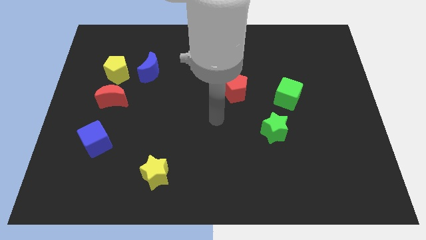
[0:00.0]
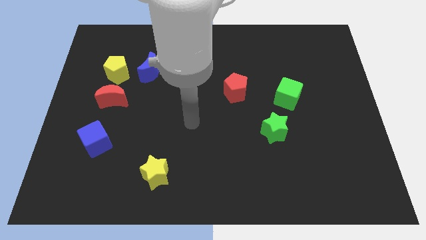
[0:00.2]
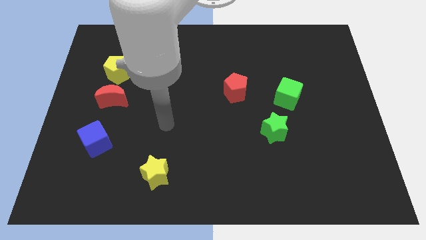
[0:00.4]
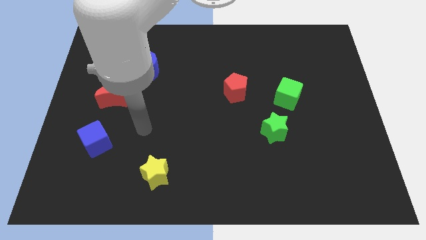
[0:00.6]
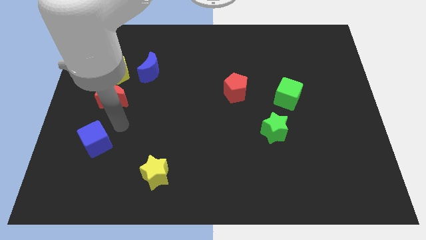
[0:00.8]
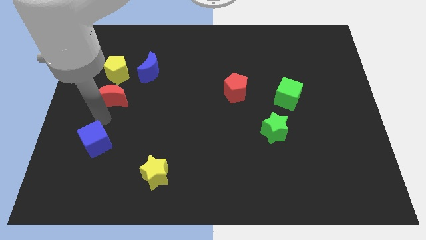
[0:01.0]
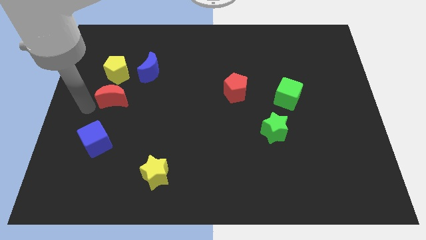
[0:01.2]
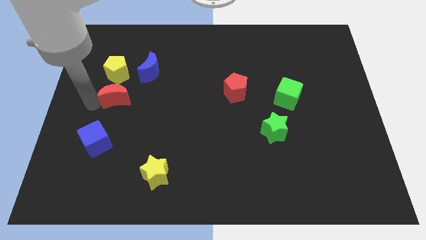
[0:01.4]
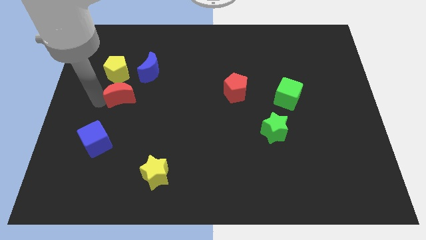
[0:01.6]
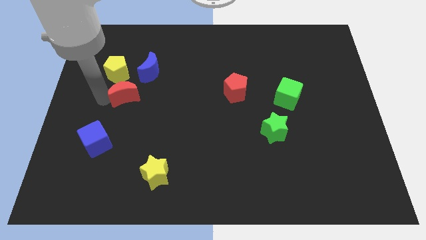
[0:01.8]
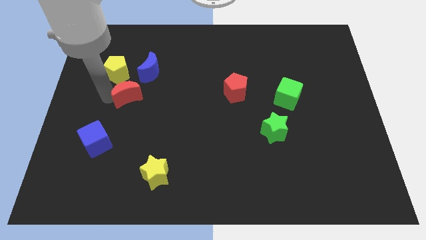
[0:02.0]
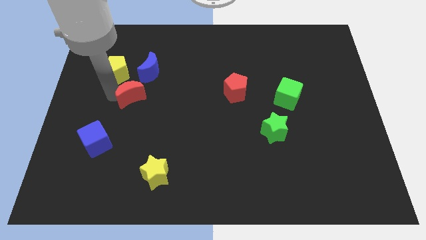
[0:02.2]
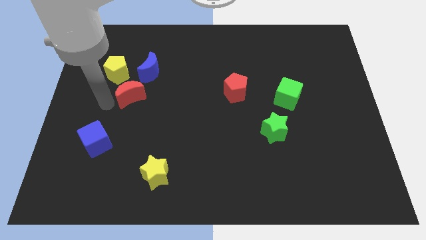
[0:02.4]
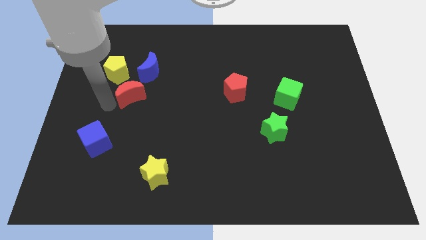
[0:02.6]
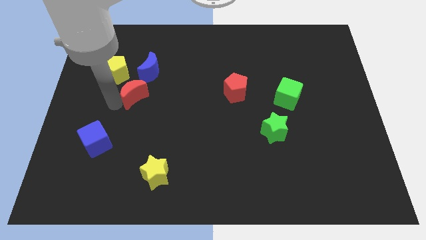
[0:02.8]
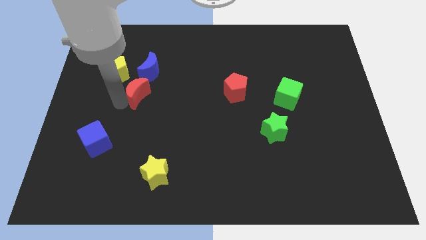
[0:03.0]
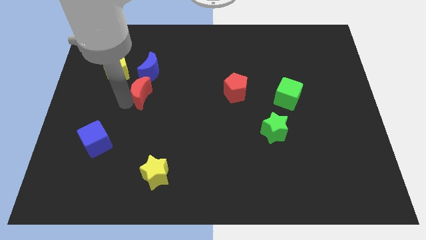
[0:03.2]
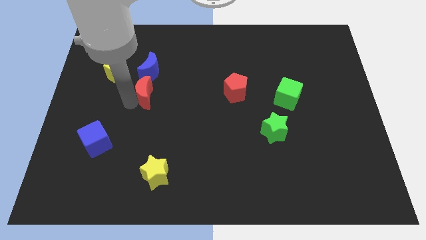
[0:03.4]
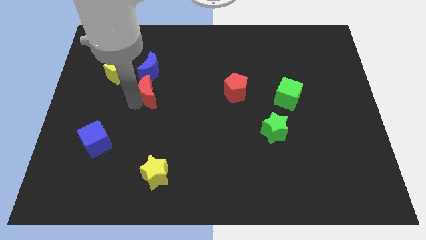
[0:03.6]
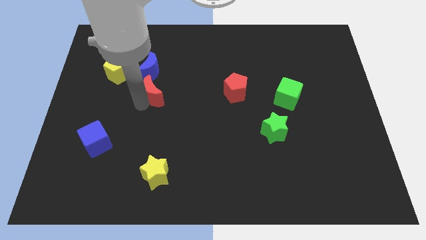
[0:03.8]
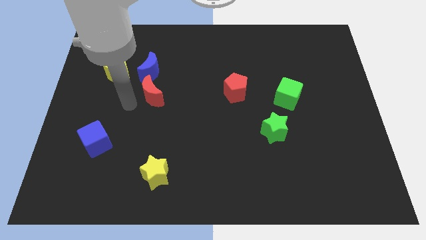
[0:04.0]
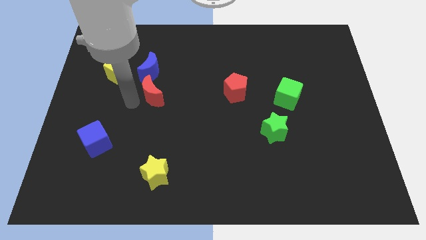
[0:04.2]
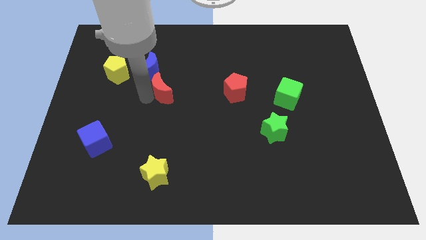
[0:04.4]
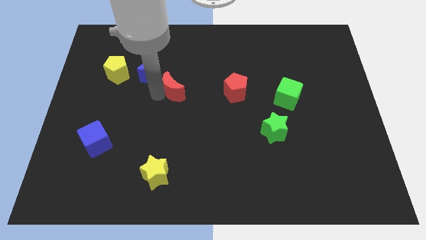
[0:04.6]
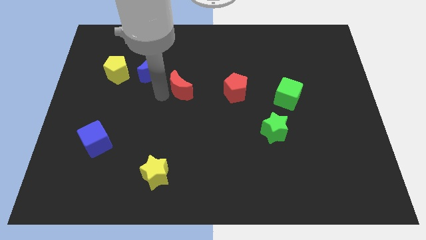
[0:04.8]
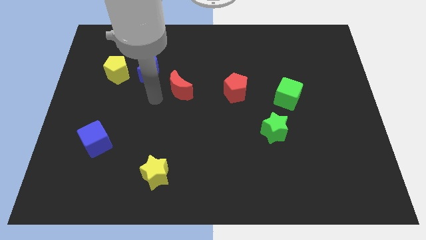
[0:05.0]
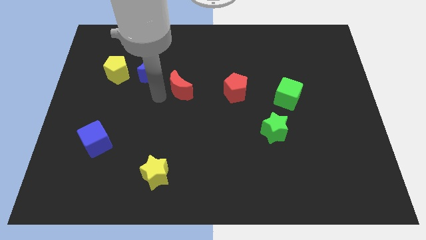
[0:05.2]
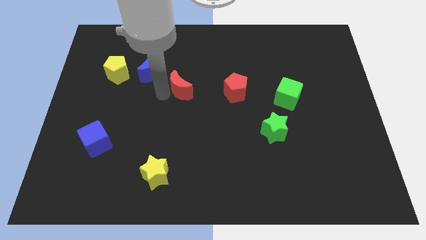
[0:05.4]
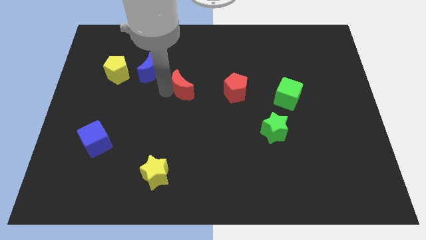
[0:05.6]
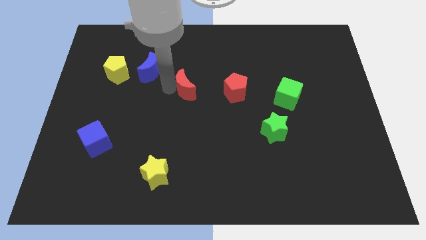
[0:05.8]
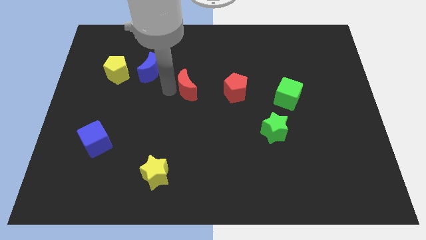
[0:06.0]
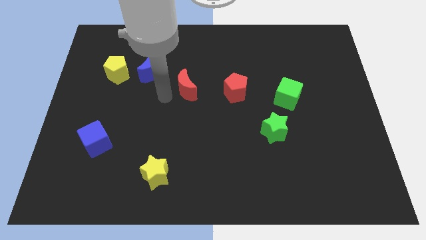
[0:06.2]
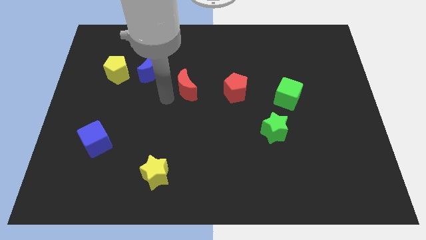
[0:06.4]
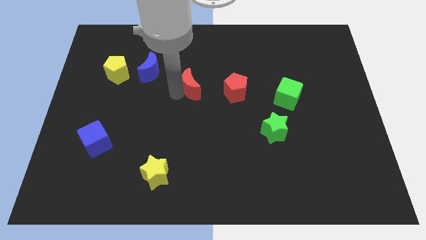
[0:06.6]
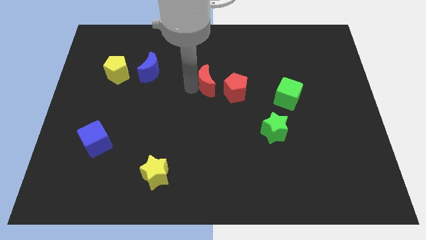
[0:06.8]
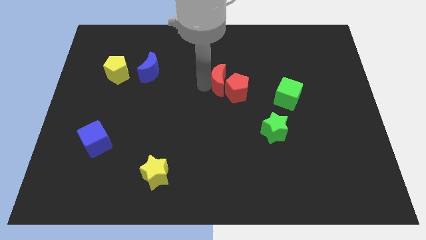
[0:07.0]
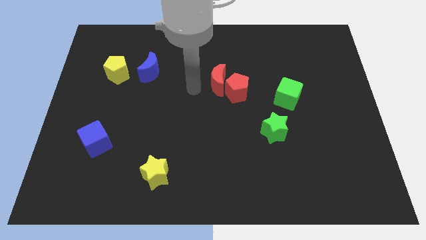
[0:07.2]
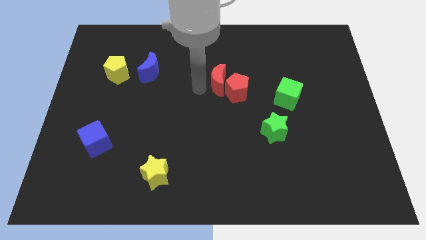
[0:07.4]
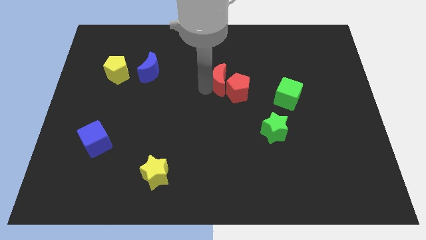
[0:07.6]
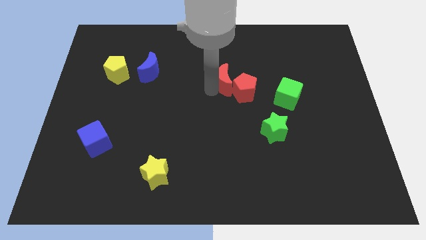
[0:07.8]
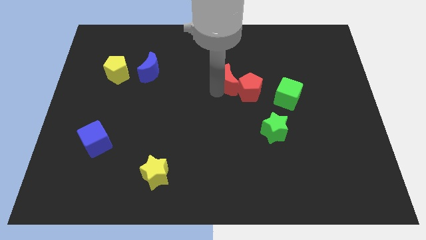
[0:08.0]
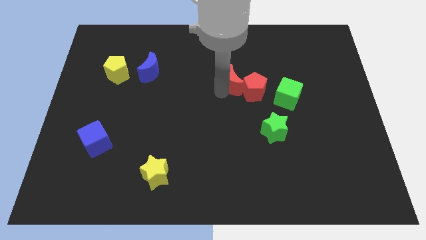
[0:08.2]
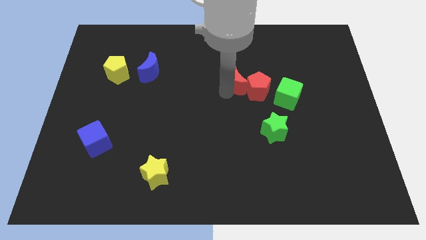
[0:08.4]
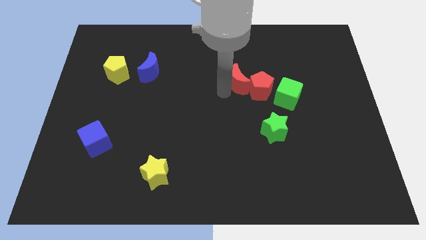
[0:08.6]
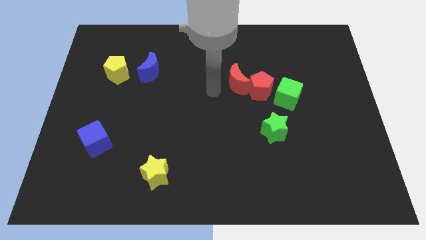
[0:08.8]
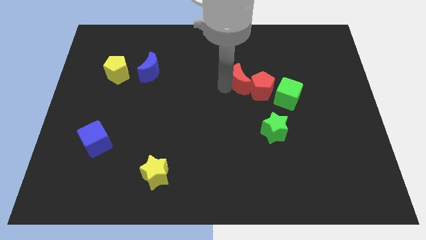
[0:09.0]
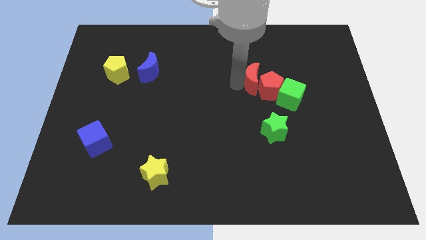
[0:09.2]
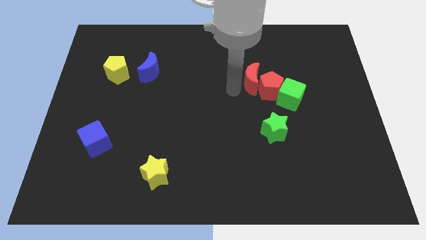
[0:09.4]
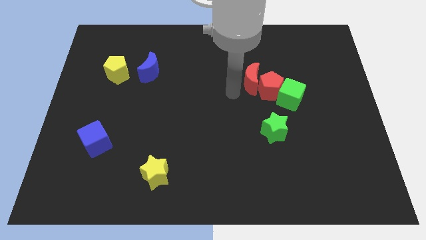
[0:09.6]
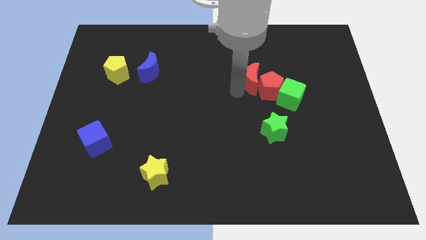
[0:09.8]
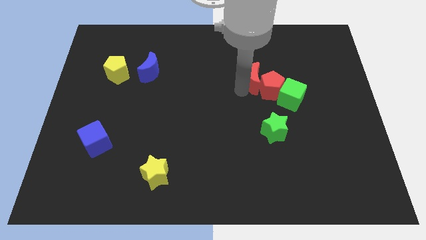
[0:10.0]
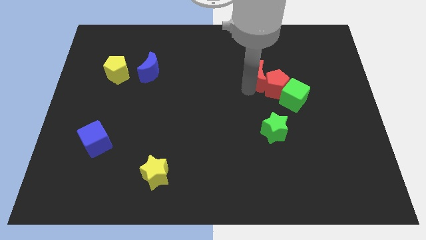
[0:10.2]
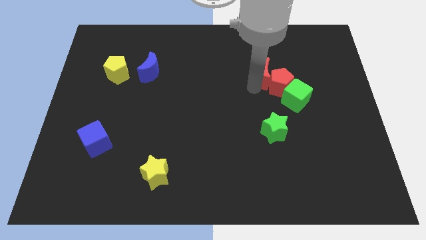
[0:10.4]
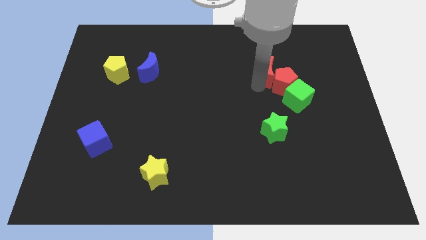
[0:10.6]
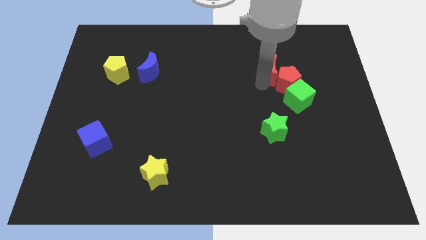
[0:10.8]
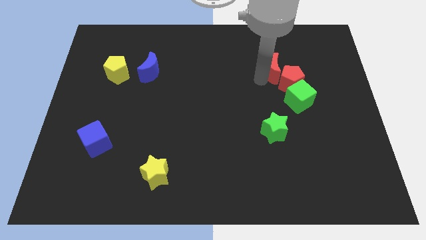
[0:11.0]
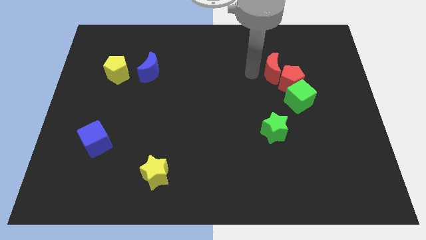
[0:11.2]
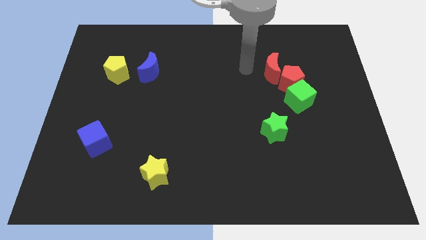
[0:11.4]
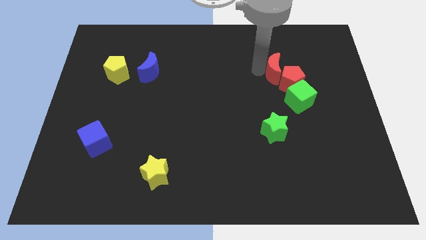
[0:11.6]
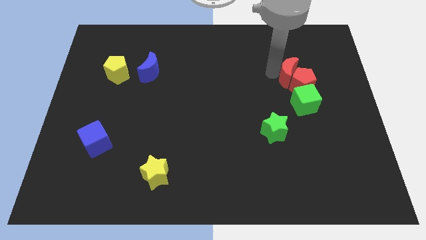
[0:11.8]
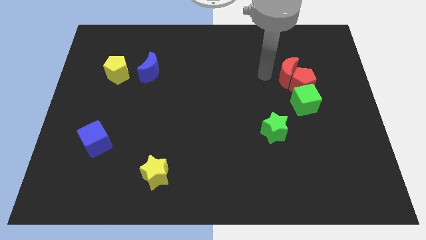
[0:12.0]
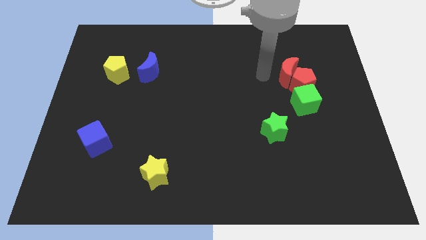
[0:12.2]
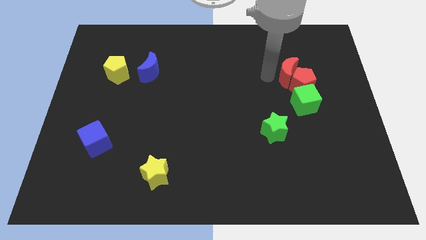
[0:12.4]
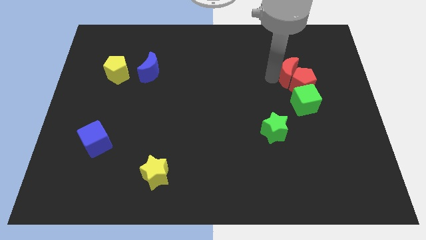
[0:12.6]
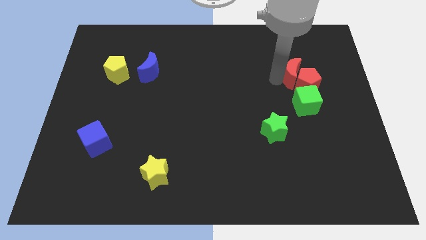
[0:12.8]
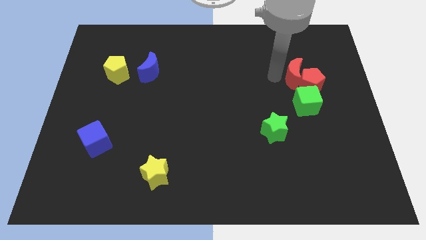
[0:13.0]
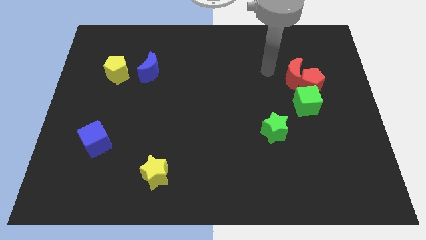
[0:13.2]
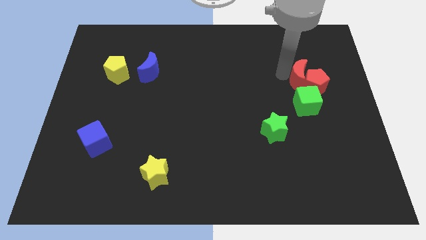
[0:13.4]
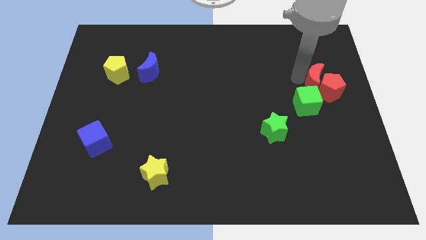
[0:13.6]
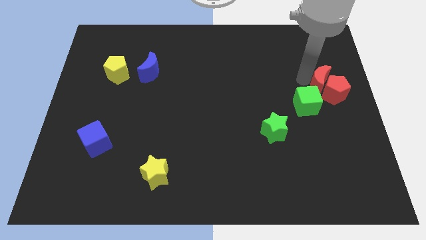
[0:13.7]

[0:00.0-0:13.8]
move the red moon to the right side of the board
